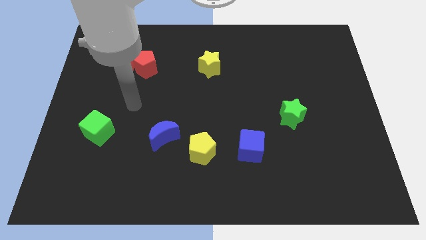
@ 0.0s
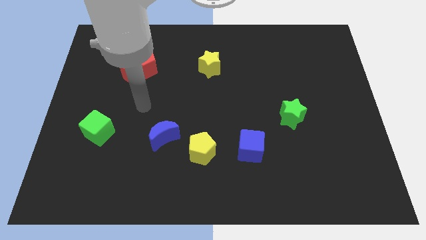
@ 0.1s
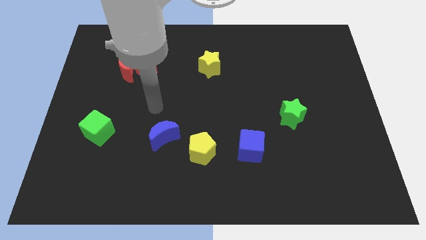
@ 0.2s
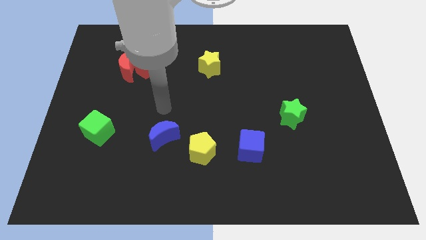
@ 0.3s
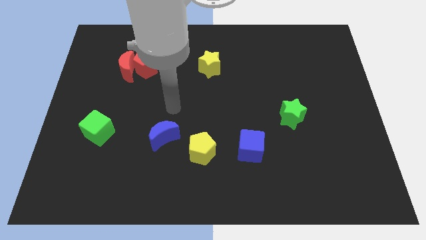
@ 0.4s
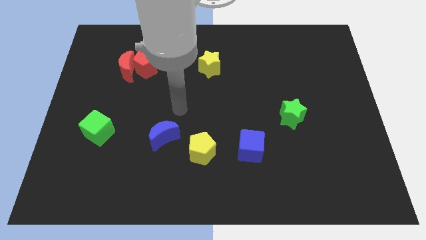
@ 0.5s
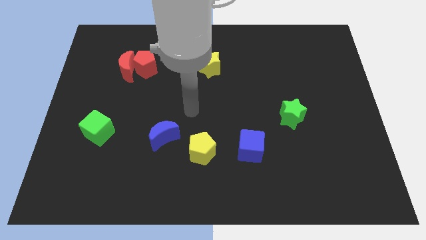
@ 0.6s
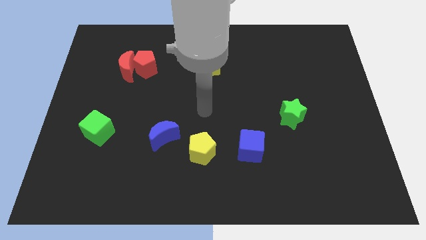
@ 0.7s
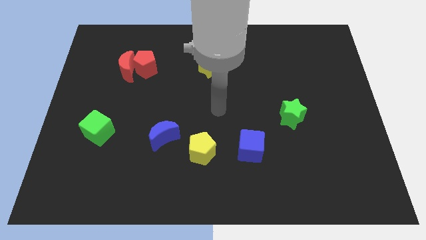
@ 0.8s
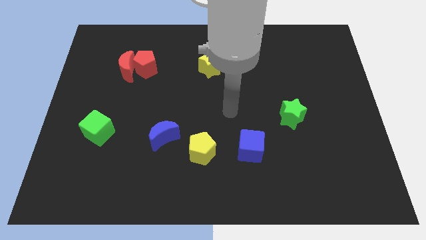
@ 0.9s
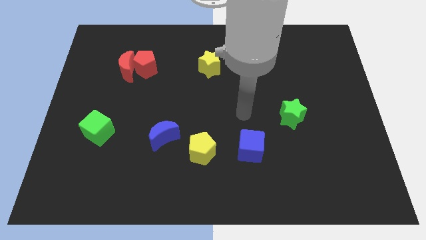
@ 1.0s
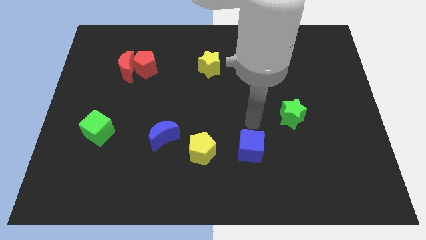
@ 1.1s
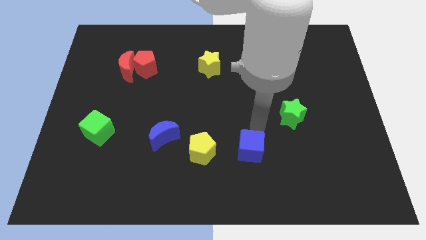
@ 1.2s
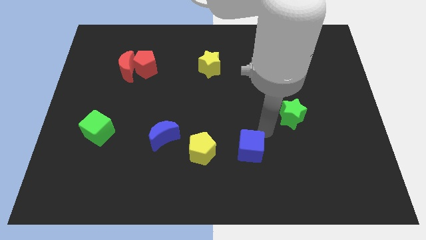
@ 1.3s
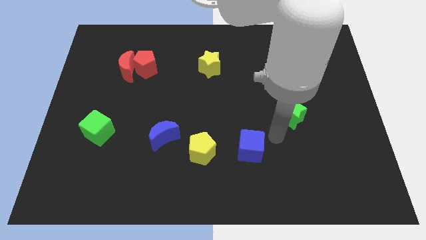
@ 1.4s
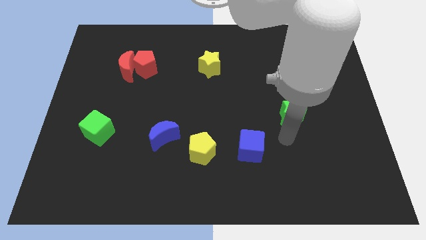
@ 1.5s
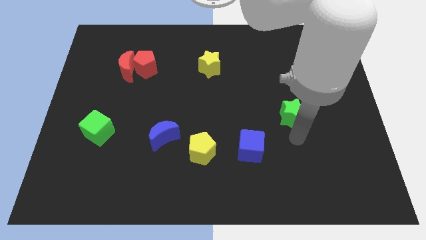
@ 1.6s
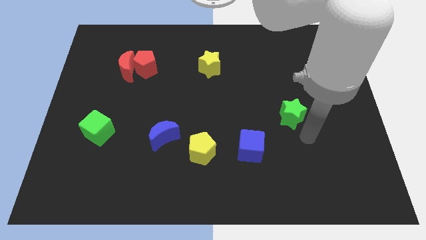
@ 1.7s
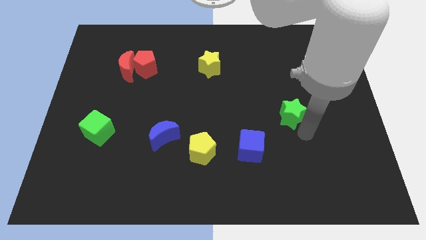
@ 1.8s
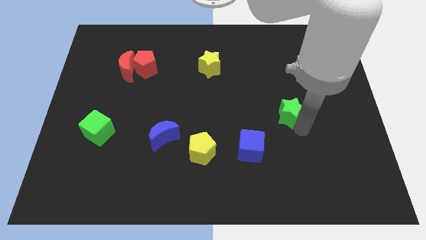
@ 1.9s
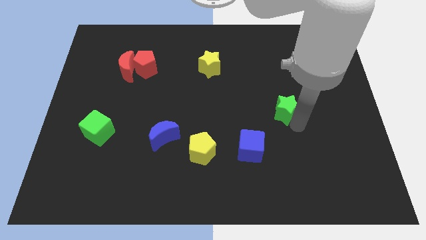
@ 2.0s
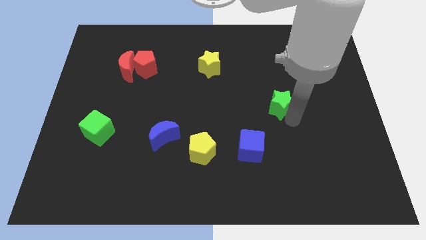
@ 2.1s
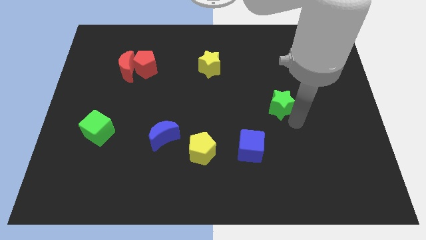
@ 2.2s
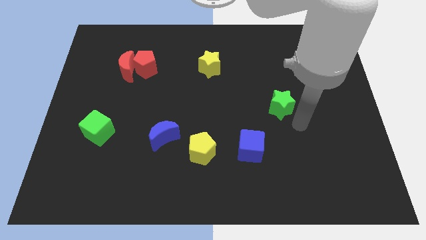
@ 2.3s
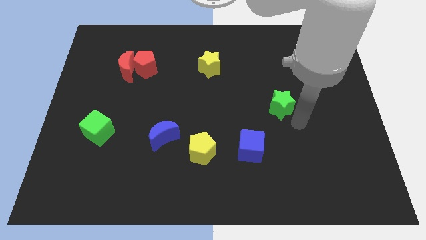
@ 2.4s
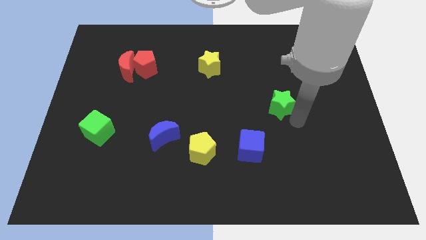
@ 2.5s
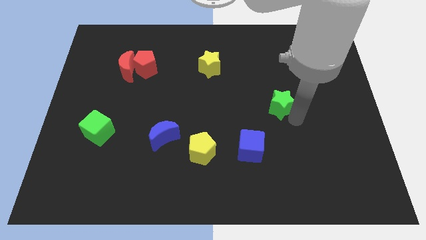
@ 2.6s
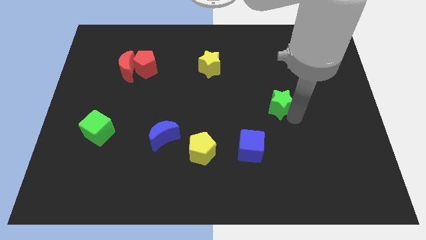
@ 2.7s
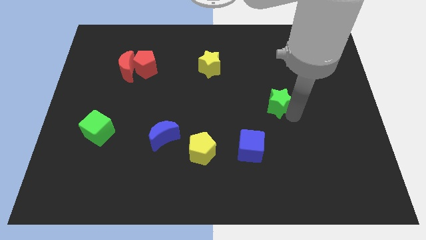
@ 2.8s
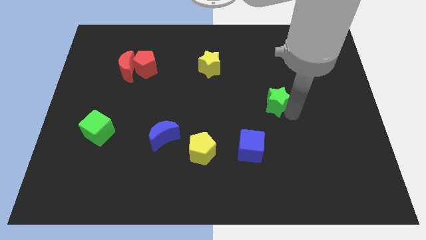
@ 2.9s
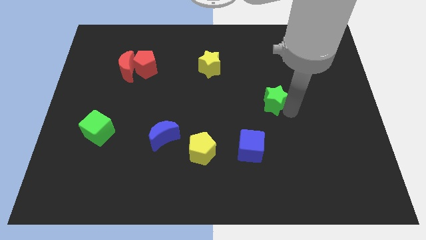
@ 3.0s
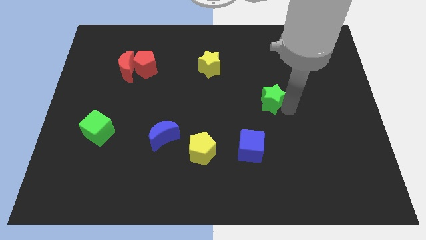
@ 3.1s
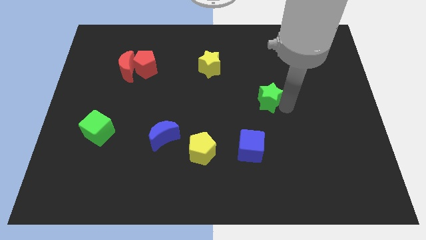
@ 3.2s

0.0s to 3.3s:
slide the green star a little upwards and then to the left

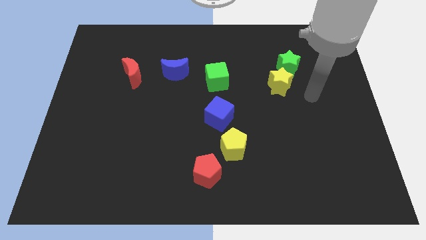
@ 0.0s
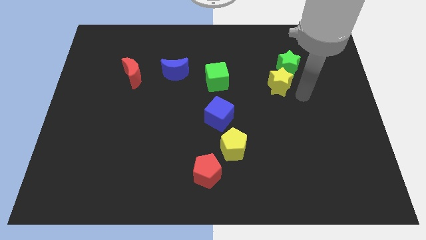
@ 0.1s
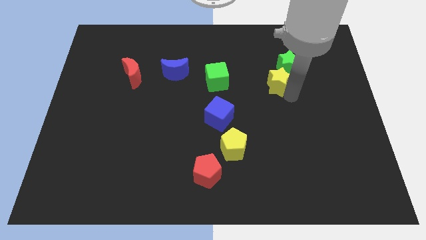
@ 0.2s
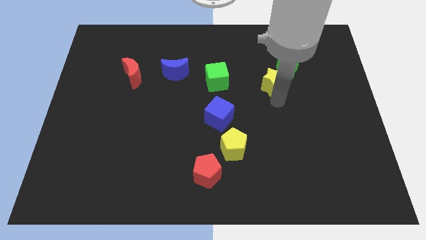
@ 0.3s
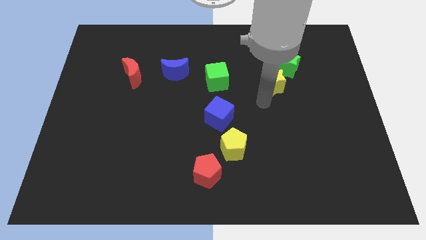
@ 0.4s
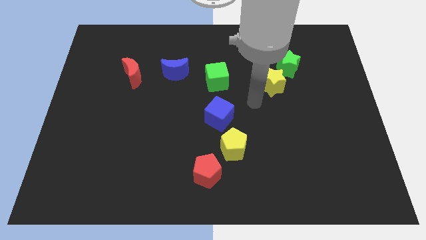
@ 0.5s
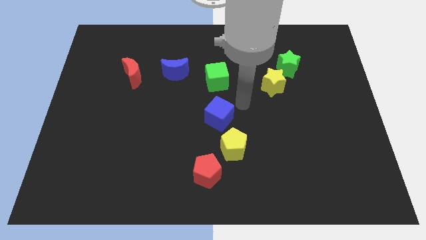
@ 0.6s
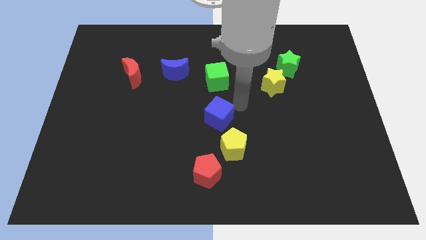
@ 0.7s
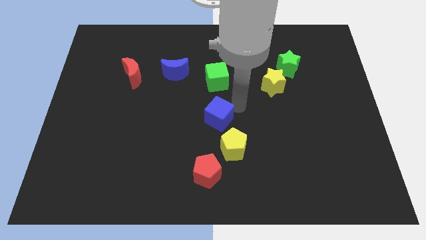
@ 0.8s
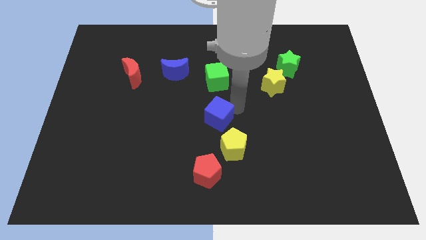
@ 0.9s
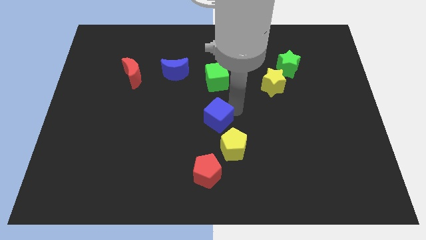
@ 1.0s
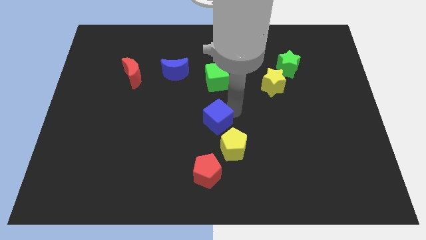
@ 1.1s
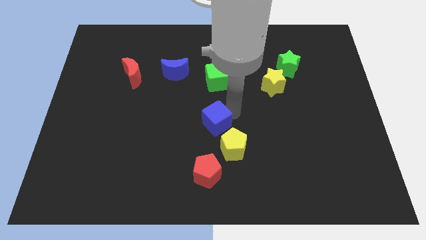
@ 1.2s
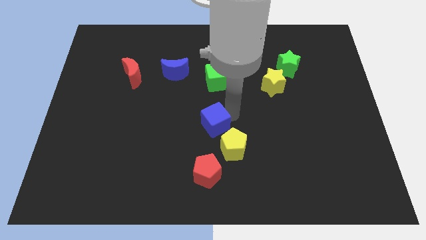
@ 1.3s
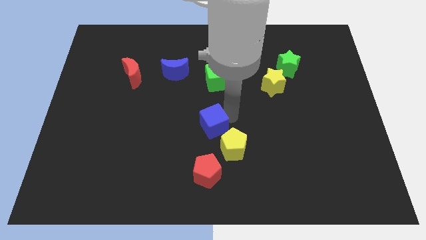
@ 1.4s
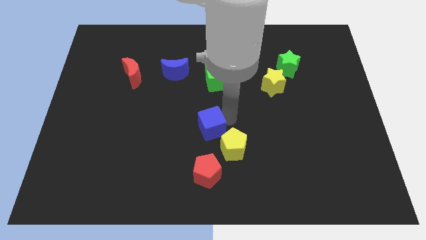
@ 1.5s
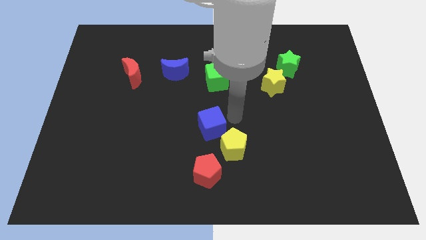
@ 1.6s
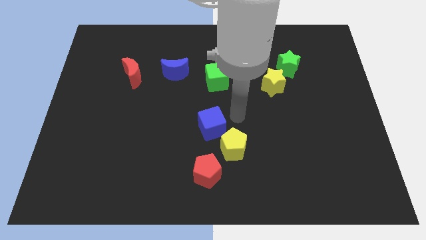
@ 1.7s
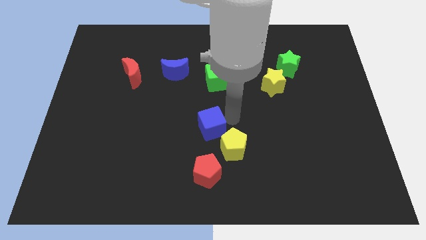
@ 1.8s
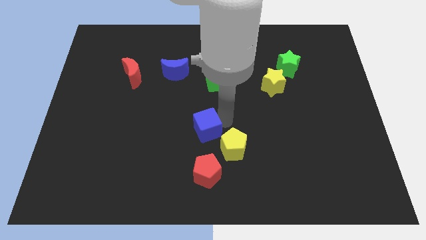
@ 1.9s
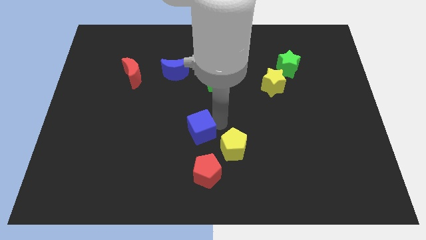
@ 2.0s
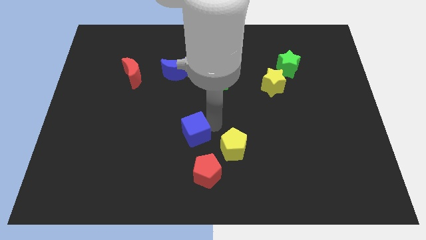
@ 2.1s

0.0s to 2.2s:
move the blue cube downwards and left diagonally somewhat

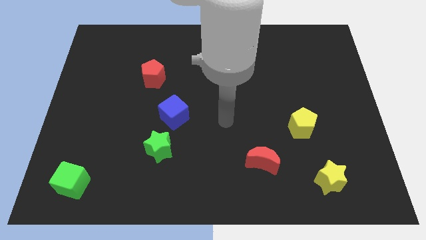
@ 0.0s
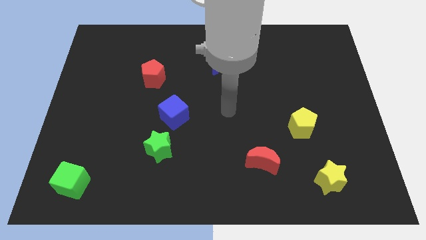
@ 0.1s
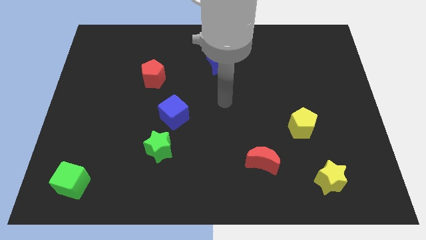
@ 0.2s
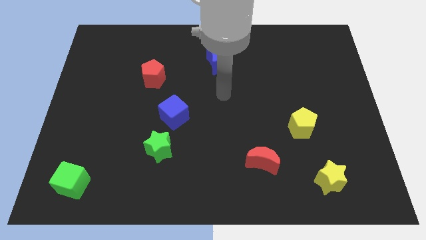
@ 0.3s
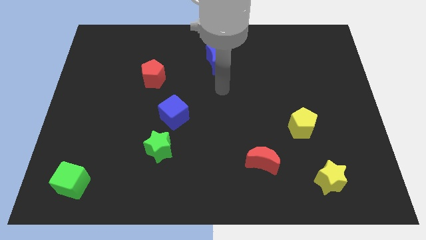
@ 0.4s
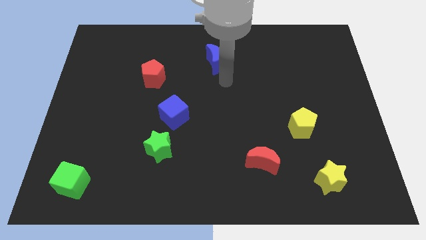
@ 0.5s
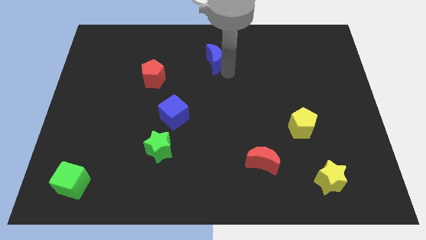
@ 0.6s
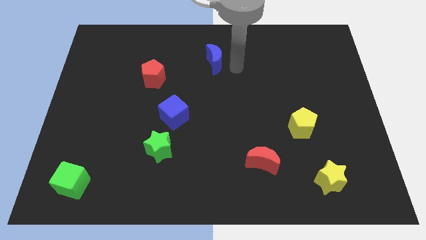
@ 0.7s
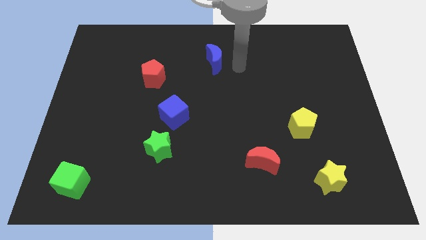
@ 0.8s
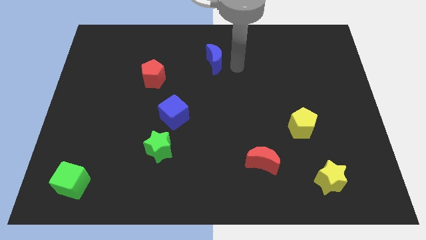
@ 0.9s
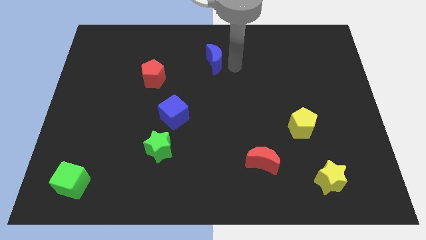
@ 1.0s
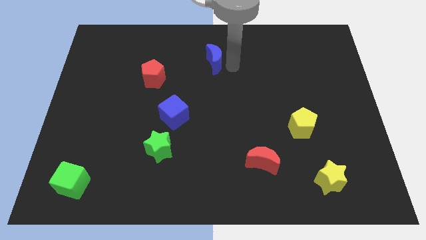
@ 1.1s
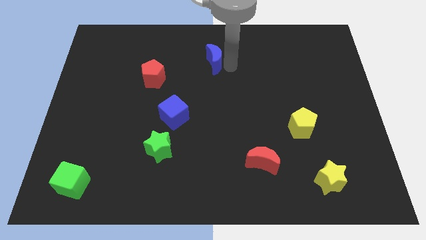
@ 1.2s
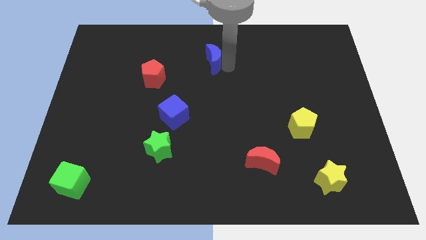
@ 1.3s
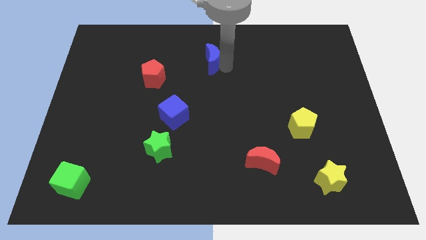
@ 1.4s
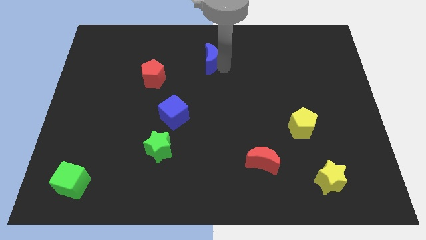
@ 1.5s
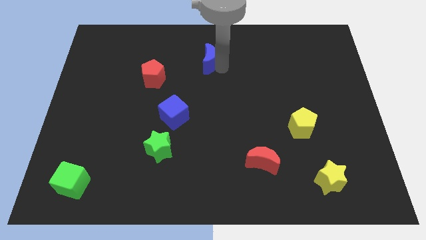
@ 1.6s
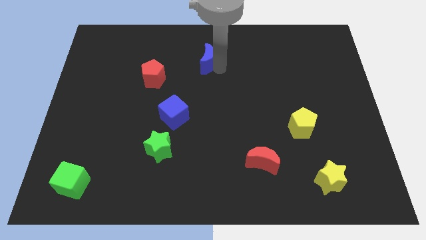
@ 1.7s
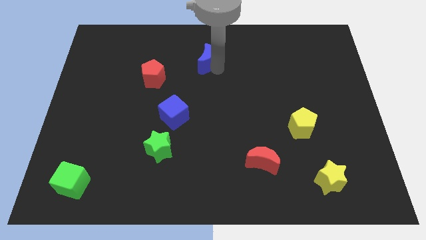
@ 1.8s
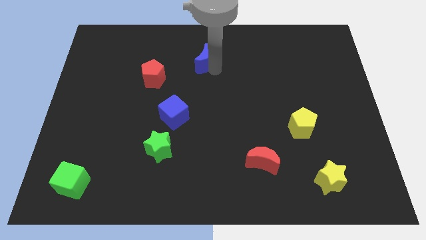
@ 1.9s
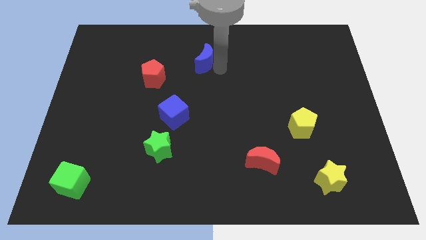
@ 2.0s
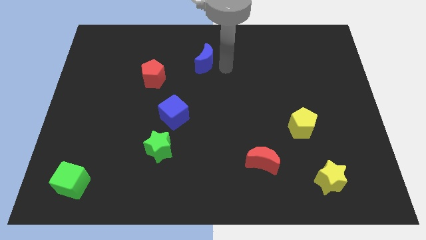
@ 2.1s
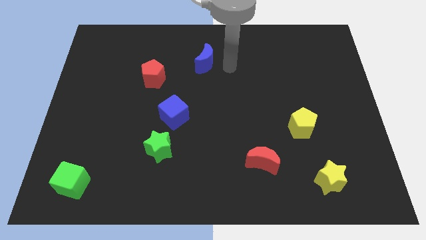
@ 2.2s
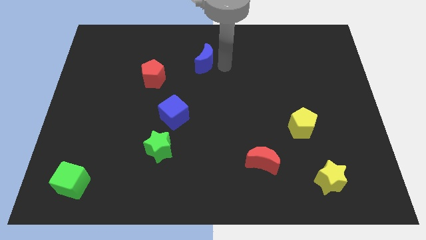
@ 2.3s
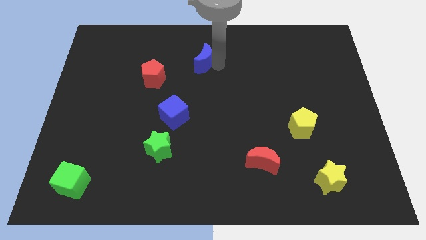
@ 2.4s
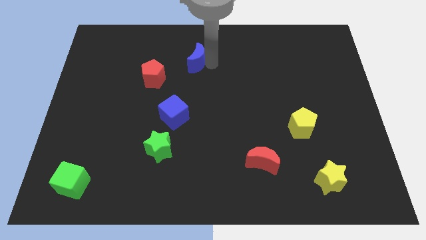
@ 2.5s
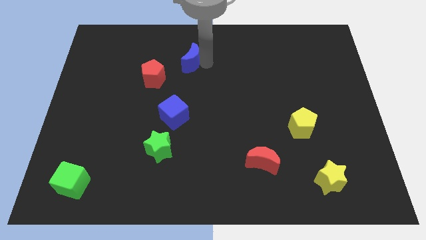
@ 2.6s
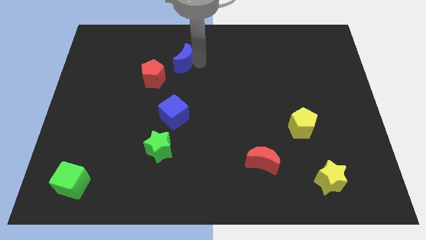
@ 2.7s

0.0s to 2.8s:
push the blue moon a little bit left
